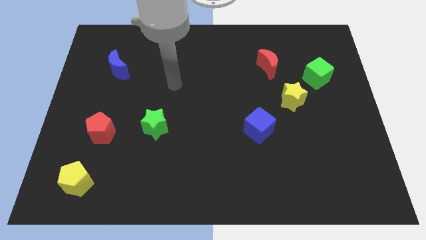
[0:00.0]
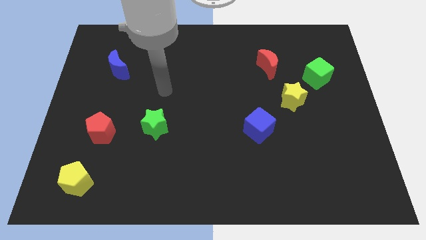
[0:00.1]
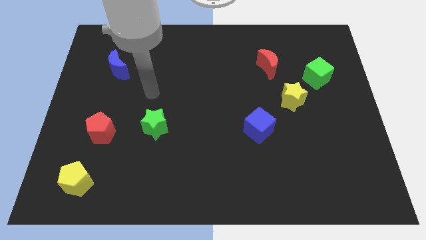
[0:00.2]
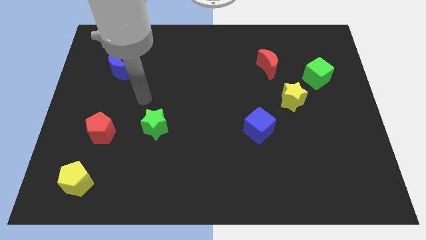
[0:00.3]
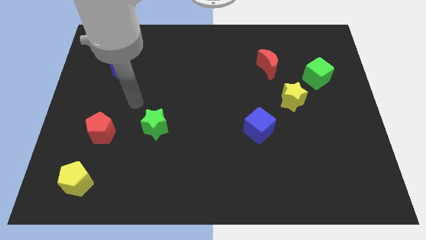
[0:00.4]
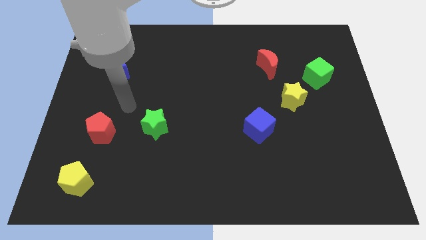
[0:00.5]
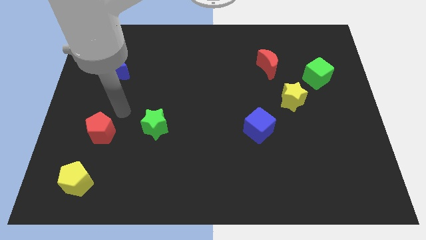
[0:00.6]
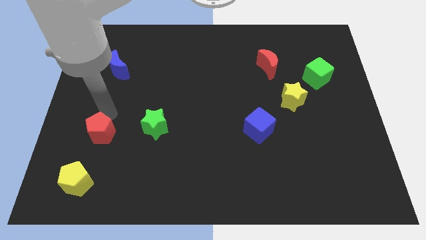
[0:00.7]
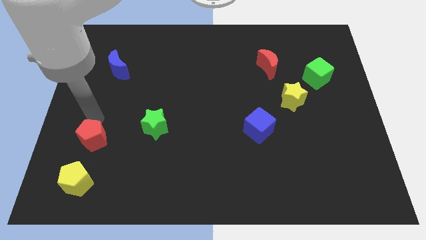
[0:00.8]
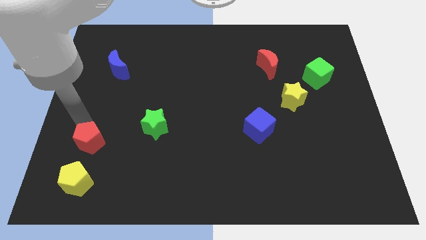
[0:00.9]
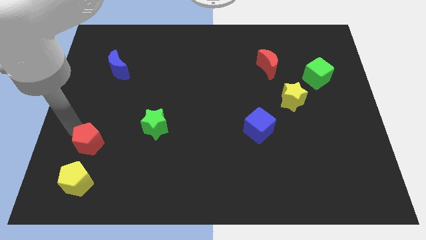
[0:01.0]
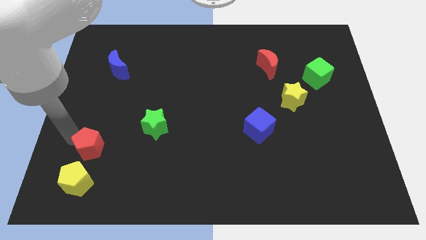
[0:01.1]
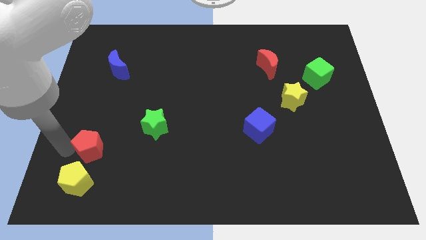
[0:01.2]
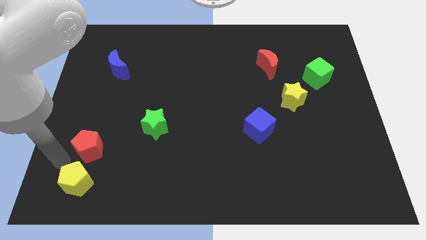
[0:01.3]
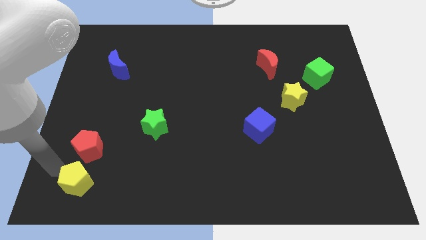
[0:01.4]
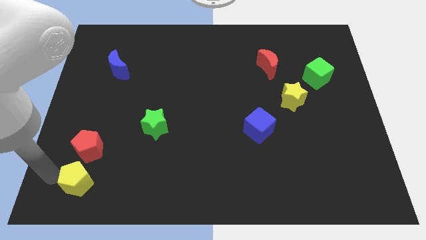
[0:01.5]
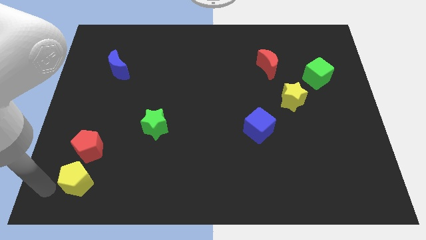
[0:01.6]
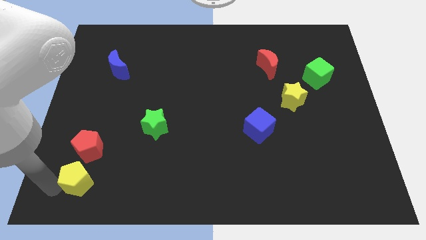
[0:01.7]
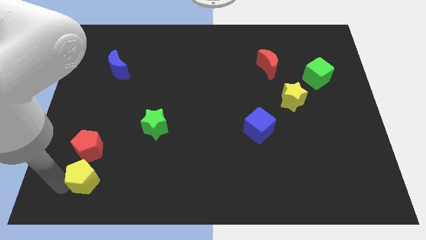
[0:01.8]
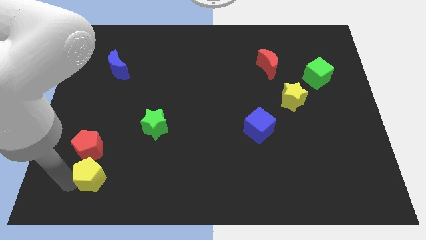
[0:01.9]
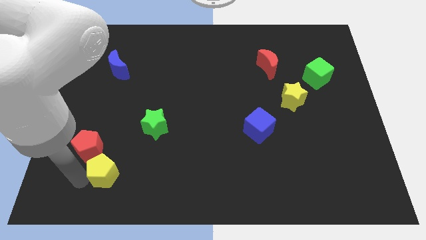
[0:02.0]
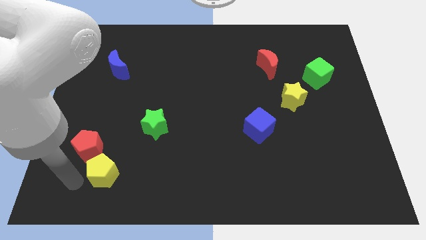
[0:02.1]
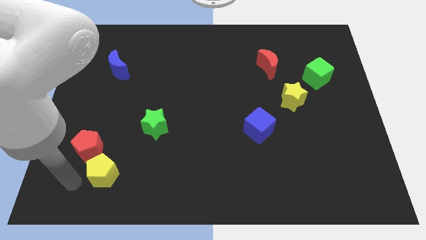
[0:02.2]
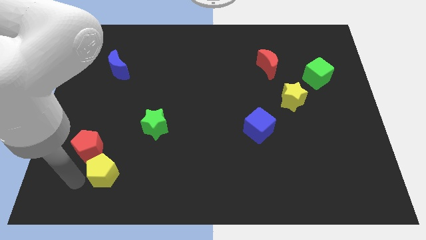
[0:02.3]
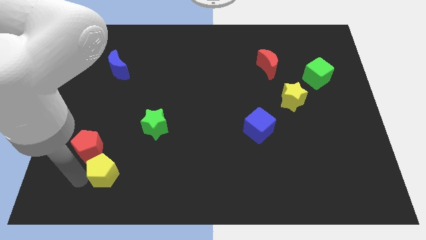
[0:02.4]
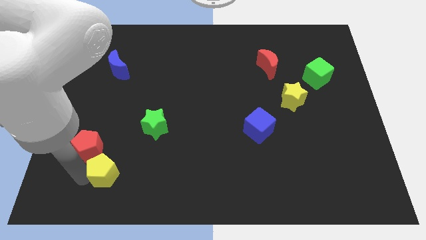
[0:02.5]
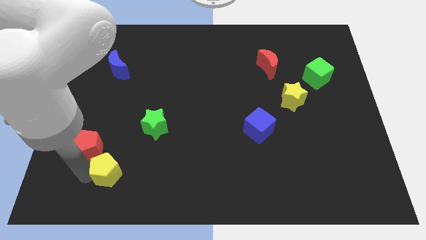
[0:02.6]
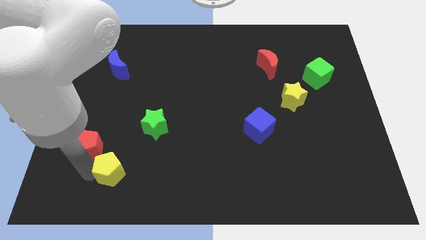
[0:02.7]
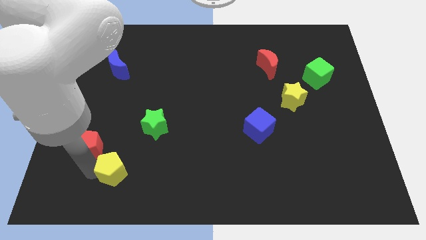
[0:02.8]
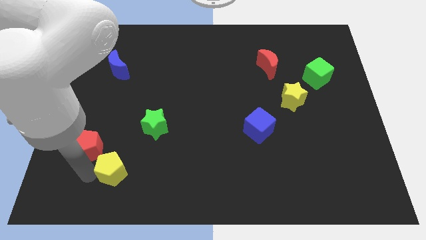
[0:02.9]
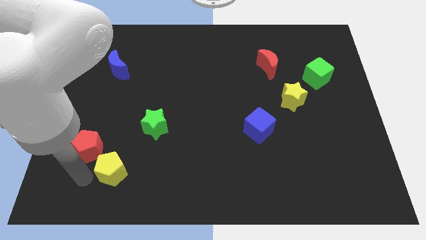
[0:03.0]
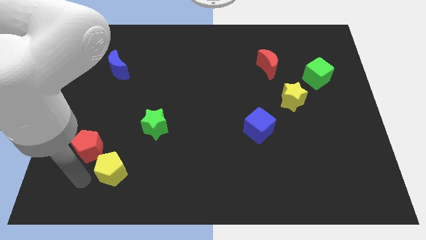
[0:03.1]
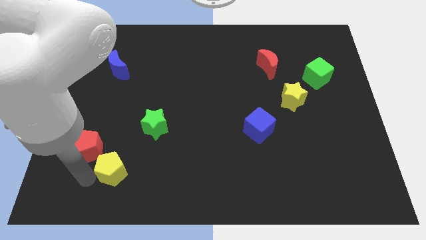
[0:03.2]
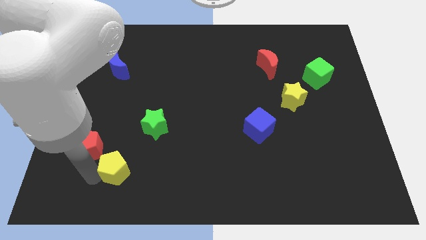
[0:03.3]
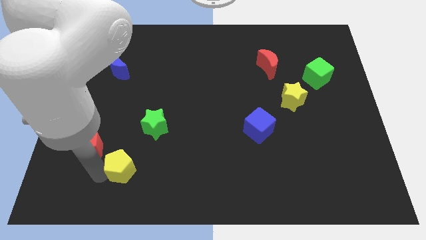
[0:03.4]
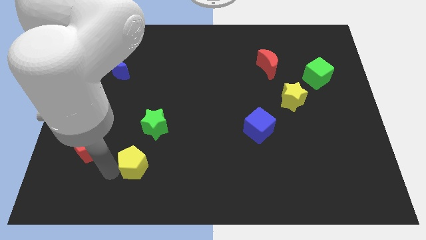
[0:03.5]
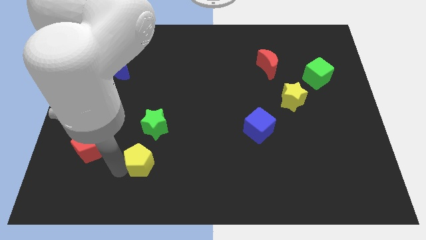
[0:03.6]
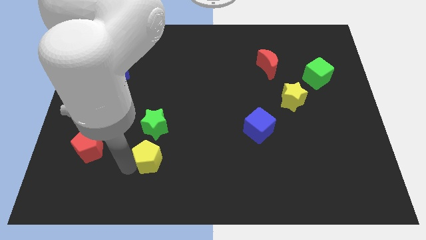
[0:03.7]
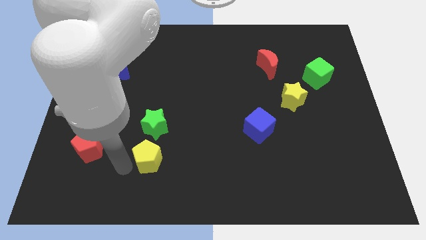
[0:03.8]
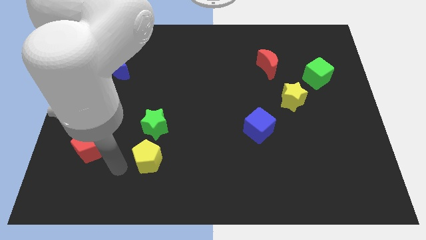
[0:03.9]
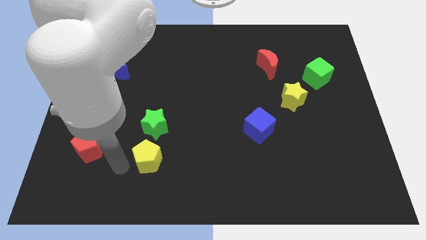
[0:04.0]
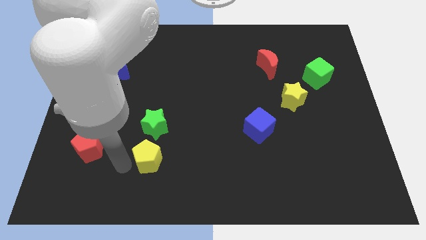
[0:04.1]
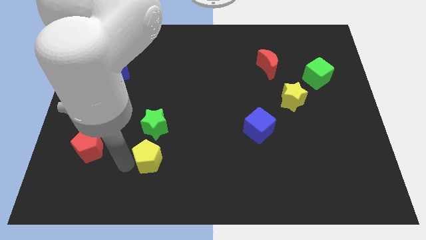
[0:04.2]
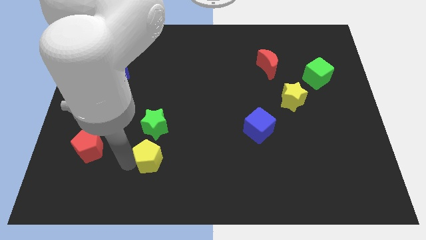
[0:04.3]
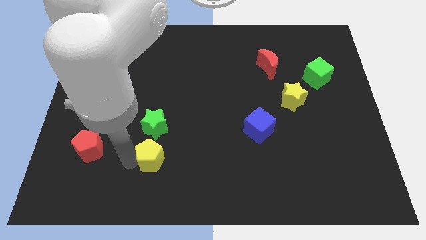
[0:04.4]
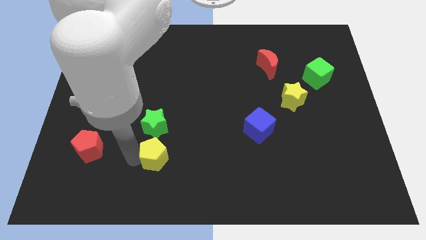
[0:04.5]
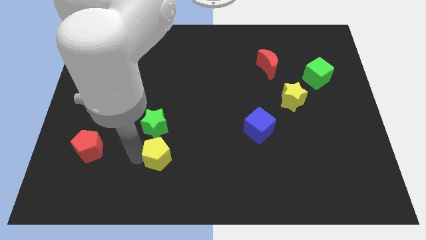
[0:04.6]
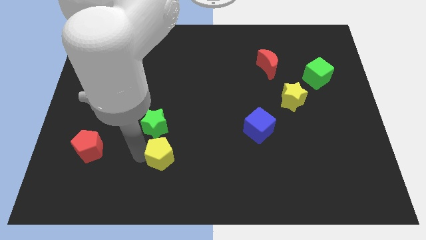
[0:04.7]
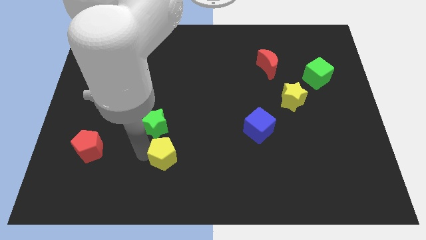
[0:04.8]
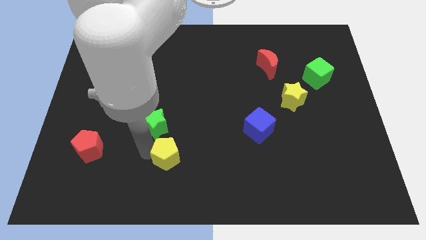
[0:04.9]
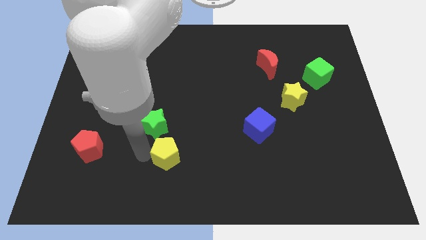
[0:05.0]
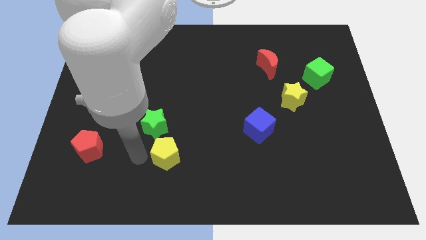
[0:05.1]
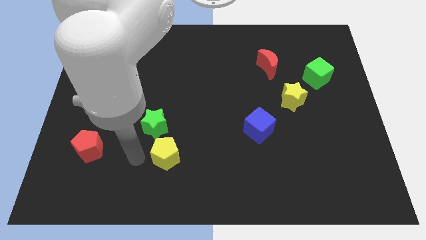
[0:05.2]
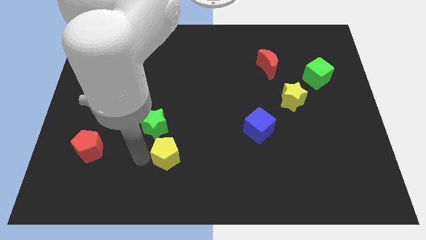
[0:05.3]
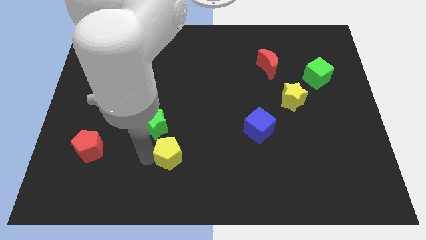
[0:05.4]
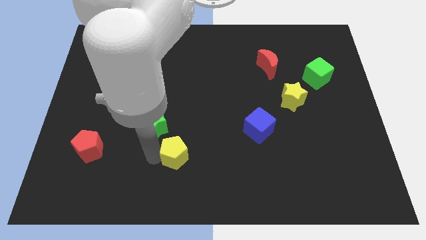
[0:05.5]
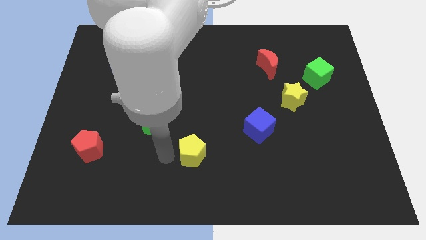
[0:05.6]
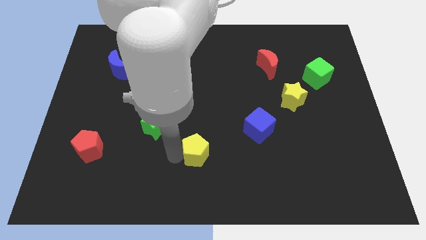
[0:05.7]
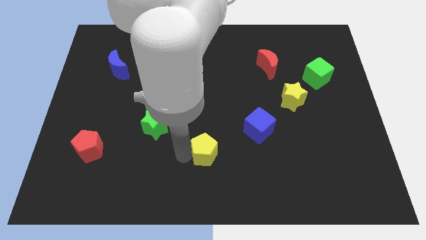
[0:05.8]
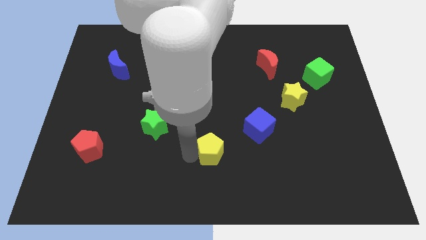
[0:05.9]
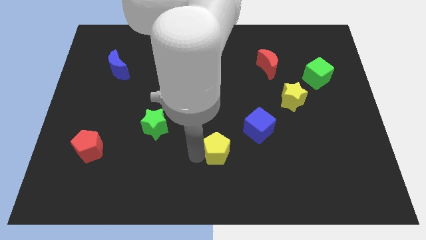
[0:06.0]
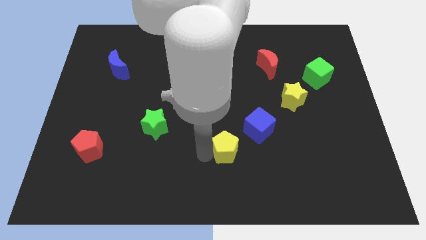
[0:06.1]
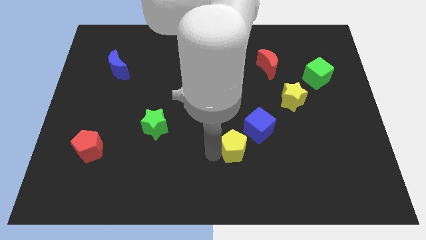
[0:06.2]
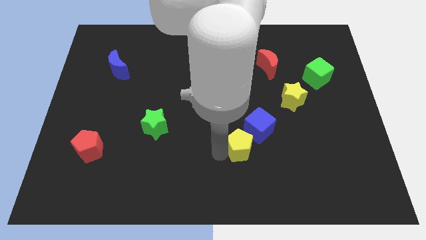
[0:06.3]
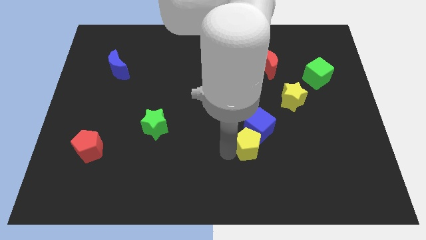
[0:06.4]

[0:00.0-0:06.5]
put the yellow pentagon towards the blue cube

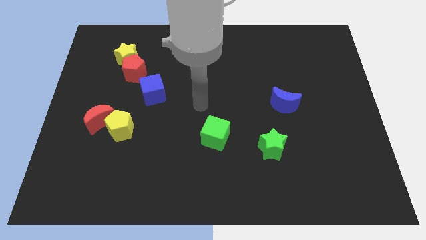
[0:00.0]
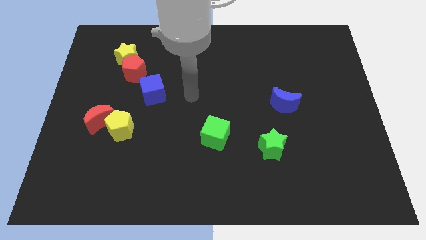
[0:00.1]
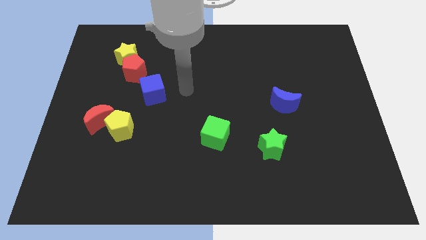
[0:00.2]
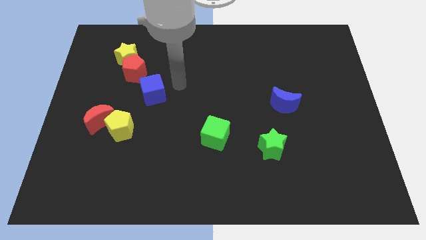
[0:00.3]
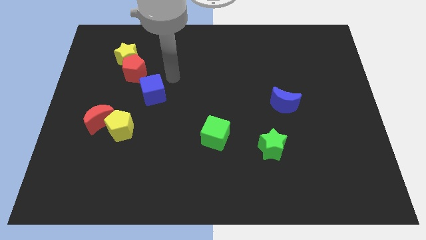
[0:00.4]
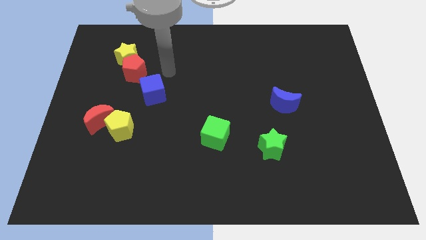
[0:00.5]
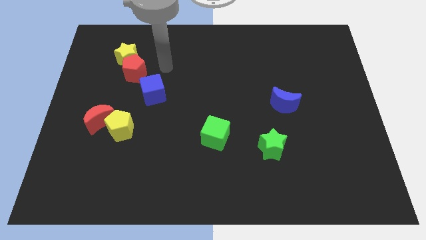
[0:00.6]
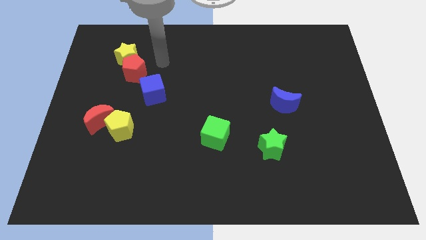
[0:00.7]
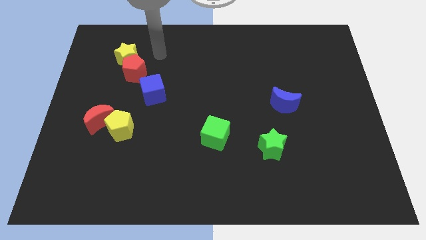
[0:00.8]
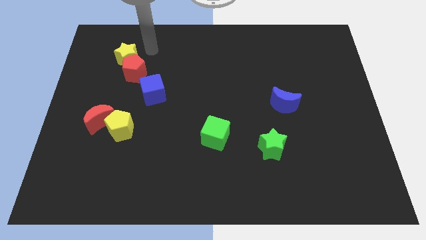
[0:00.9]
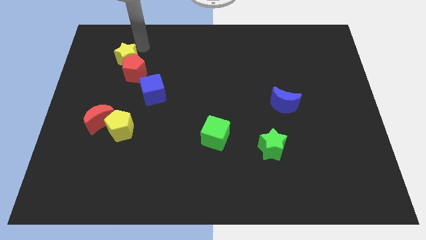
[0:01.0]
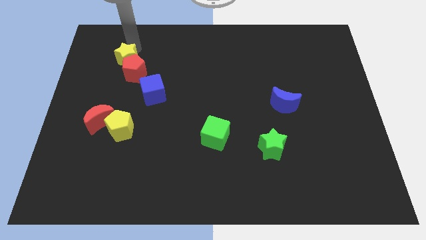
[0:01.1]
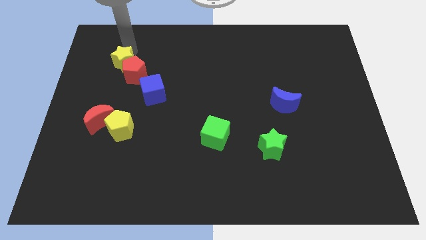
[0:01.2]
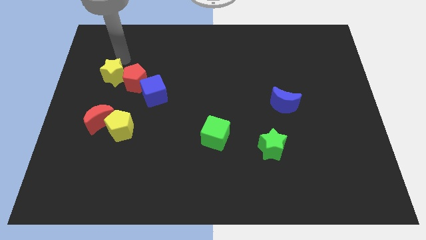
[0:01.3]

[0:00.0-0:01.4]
move the red pentagon to the blue cube
